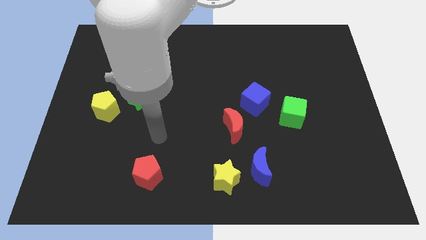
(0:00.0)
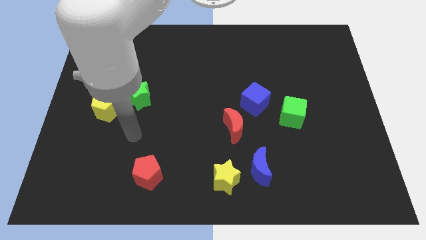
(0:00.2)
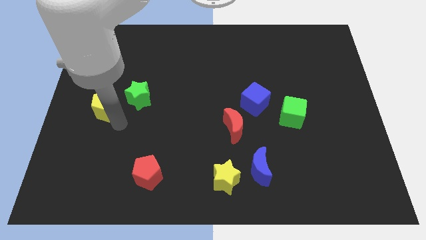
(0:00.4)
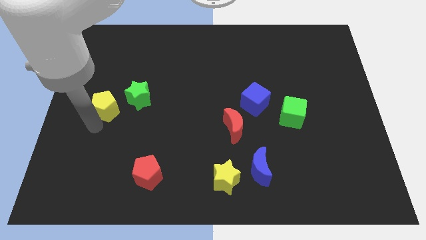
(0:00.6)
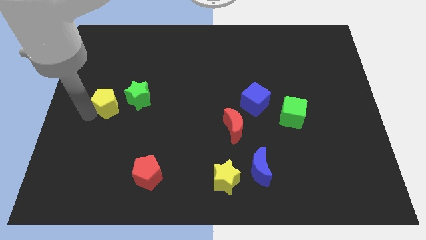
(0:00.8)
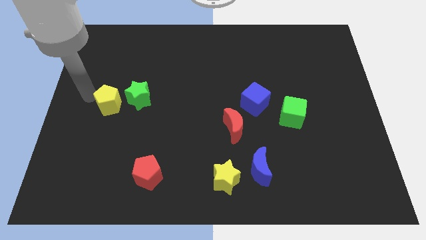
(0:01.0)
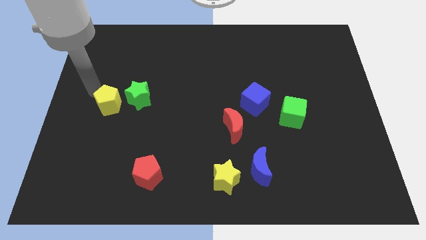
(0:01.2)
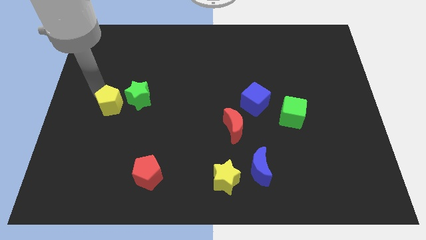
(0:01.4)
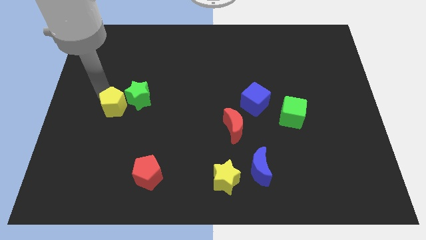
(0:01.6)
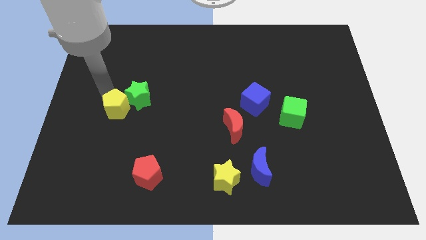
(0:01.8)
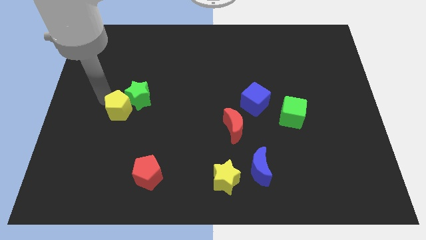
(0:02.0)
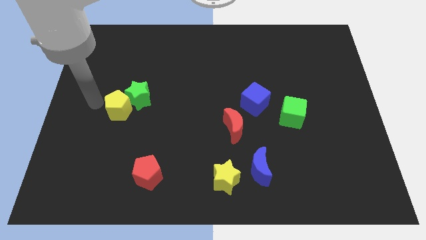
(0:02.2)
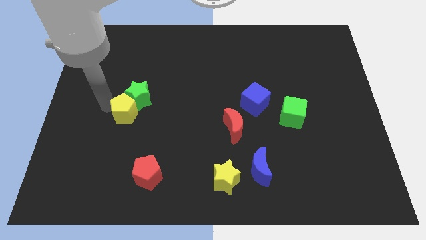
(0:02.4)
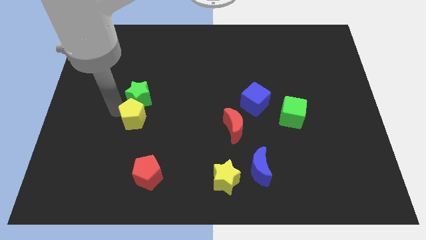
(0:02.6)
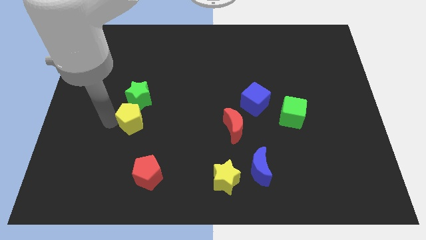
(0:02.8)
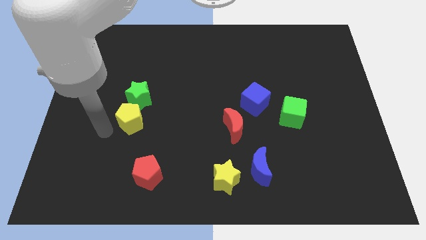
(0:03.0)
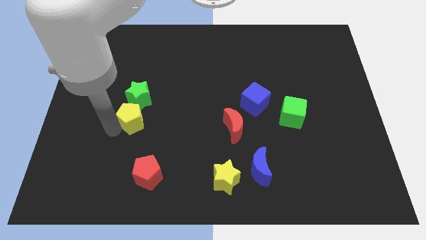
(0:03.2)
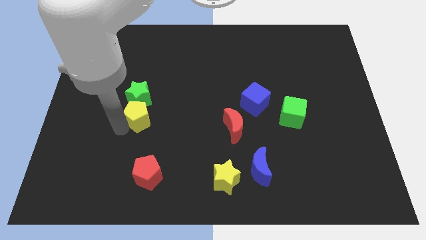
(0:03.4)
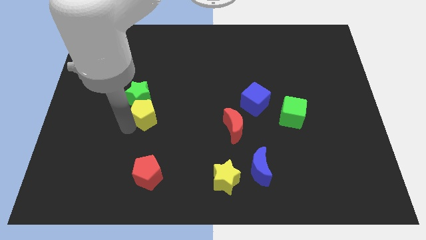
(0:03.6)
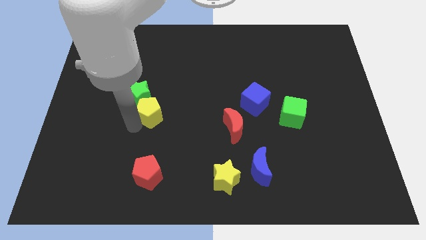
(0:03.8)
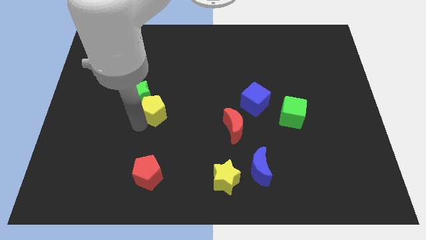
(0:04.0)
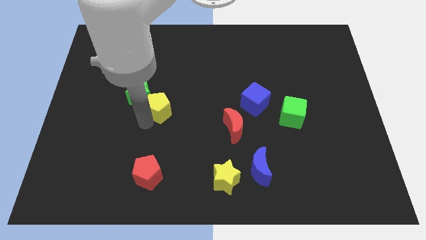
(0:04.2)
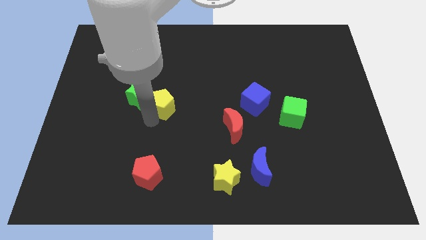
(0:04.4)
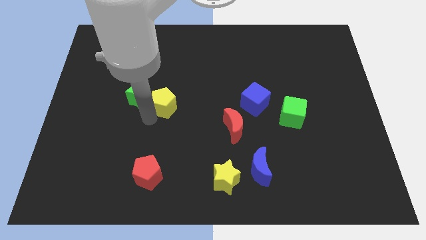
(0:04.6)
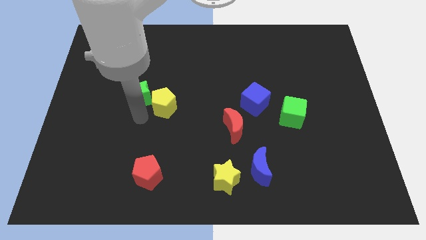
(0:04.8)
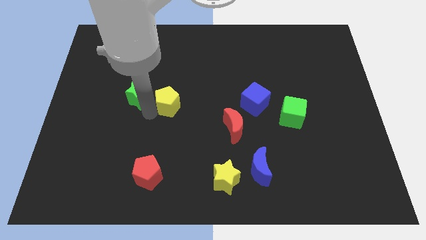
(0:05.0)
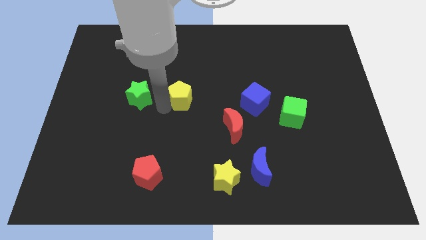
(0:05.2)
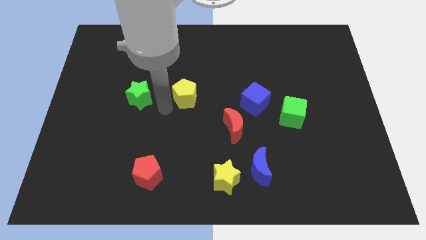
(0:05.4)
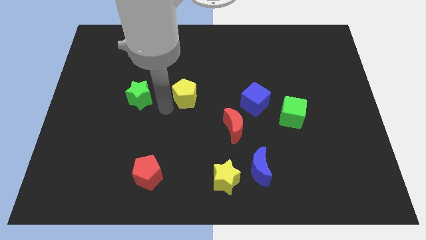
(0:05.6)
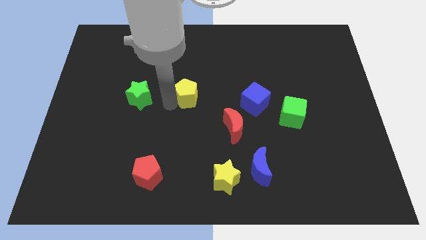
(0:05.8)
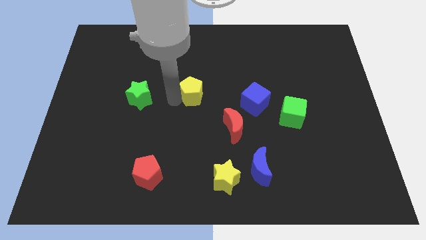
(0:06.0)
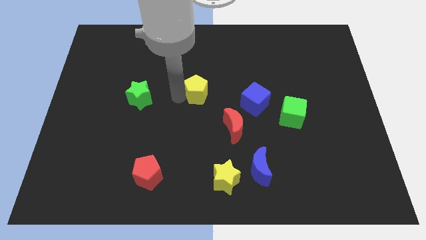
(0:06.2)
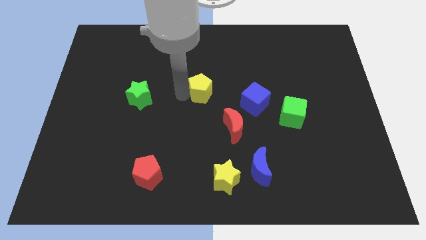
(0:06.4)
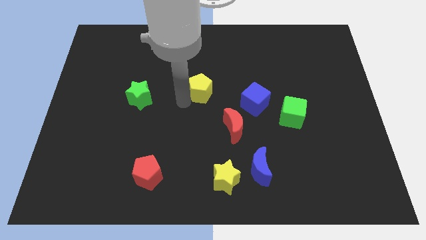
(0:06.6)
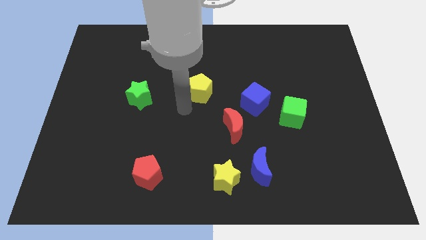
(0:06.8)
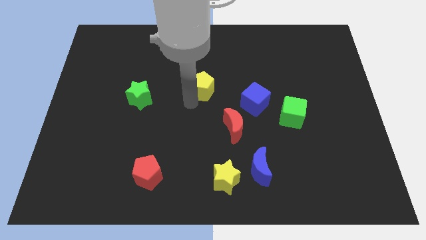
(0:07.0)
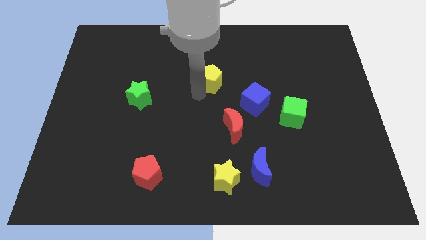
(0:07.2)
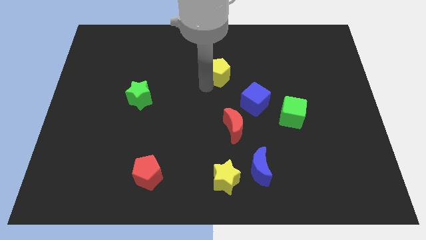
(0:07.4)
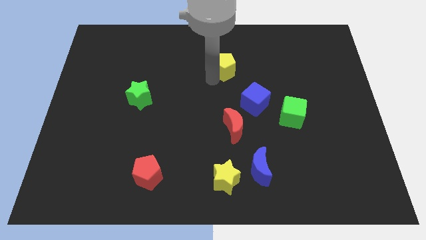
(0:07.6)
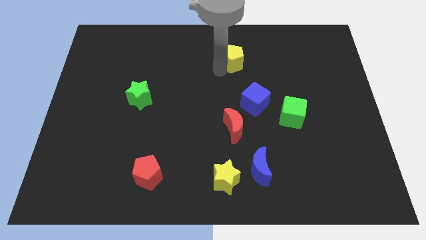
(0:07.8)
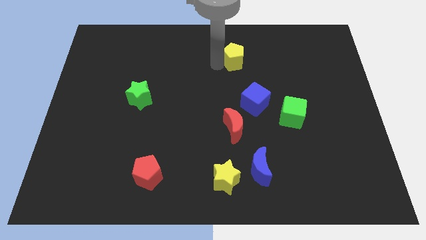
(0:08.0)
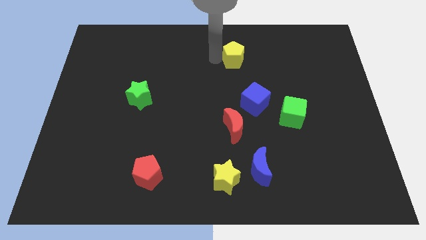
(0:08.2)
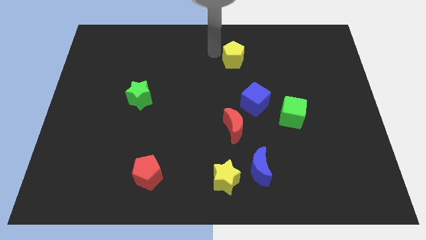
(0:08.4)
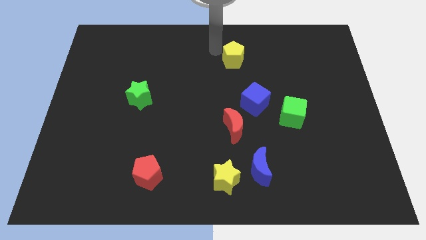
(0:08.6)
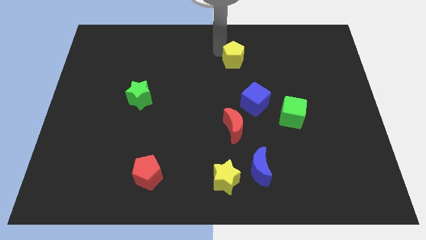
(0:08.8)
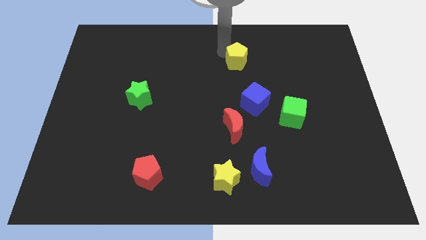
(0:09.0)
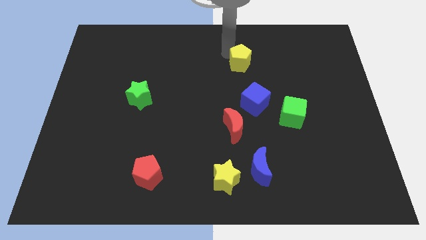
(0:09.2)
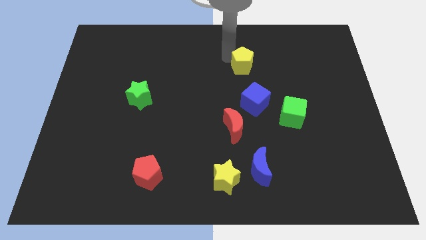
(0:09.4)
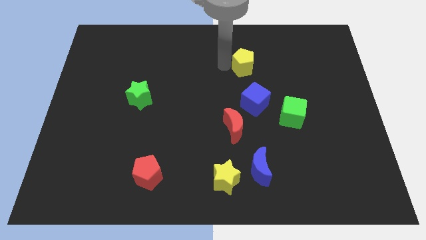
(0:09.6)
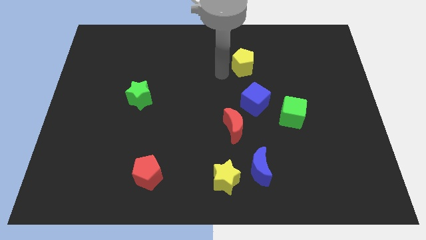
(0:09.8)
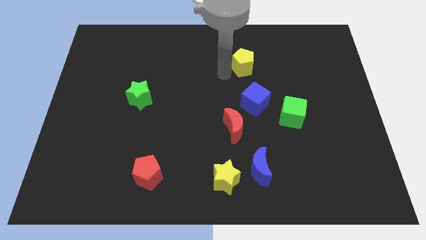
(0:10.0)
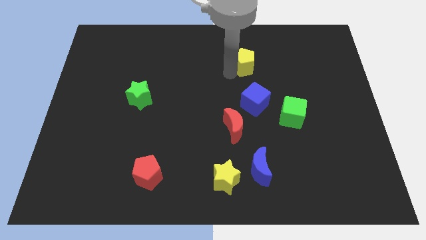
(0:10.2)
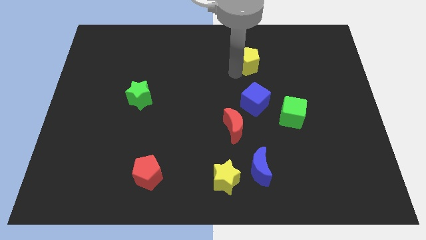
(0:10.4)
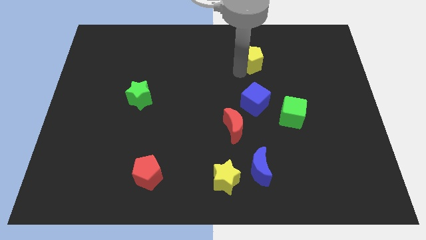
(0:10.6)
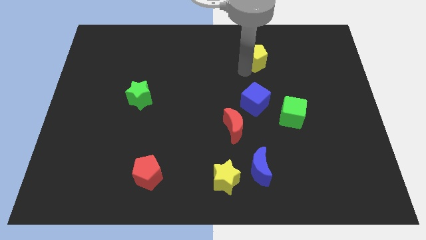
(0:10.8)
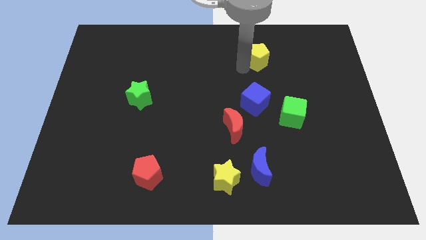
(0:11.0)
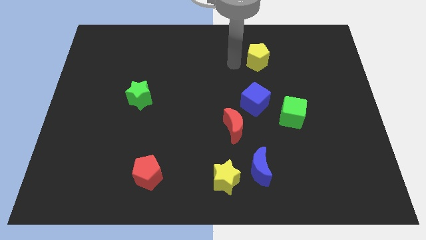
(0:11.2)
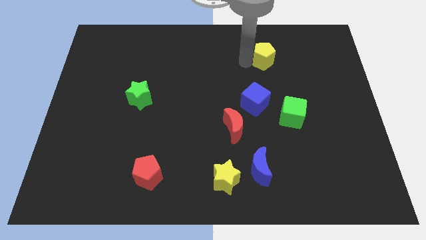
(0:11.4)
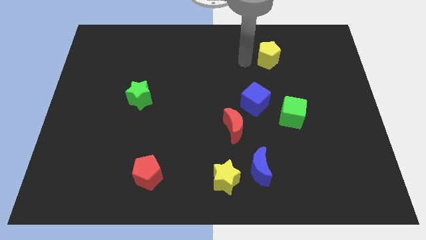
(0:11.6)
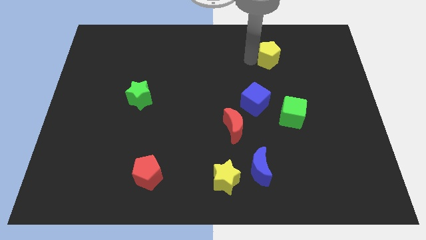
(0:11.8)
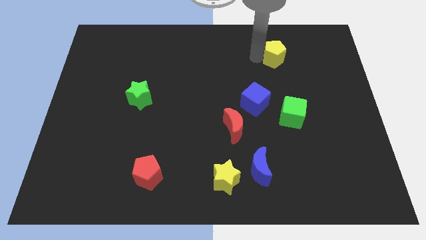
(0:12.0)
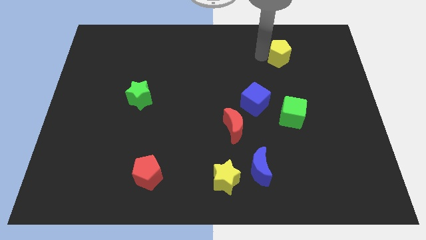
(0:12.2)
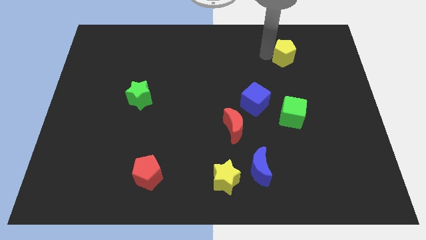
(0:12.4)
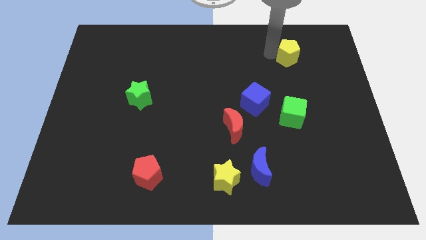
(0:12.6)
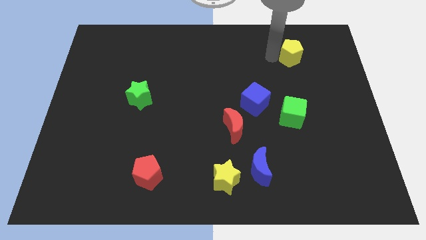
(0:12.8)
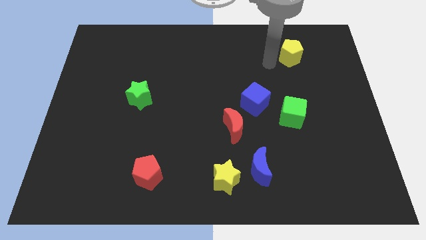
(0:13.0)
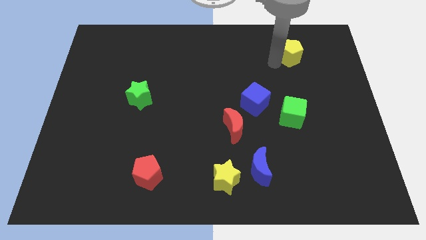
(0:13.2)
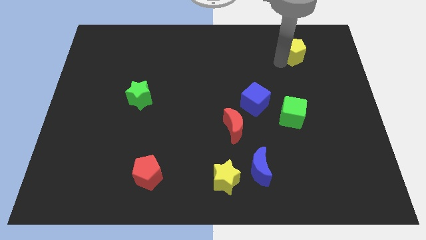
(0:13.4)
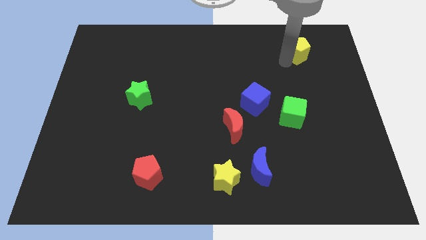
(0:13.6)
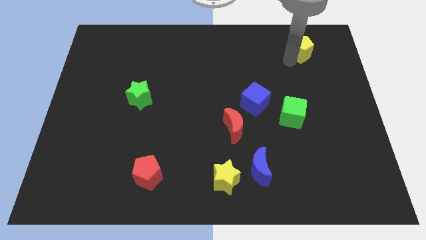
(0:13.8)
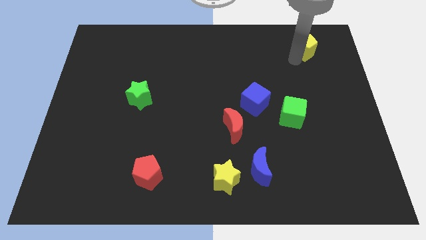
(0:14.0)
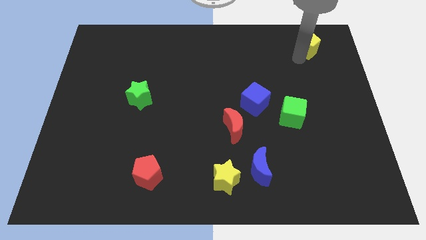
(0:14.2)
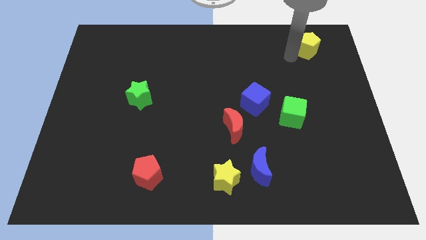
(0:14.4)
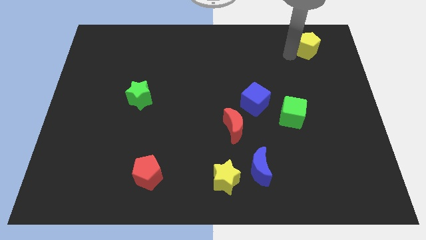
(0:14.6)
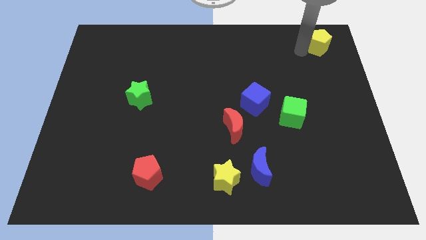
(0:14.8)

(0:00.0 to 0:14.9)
push the yellow pentagon to the top right
